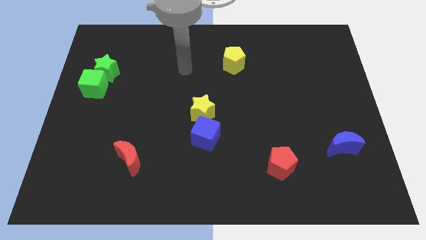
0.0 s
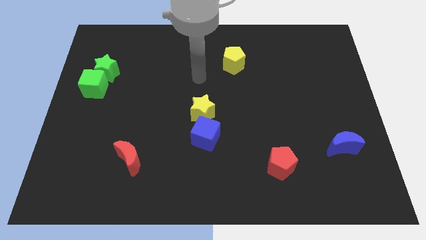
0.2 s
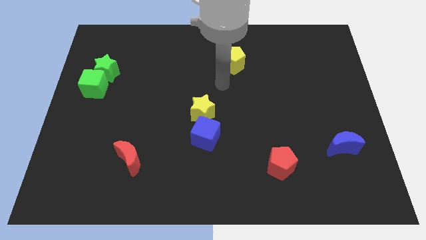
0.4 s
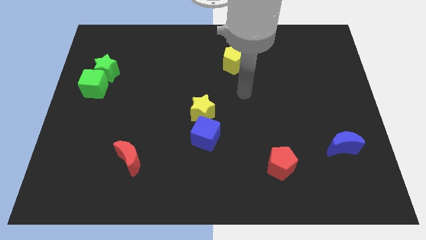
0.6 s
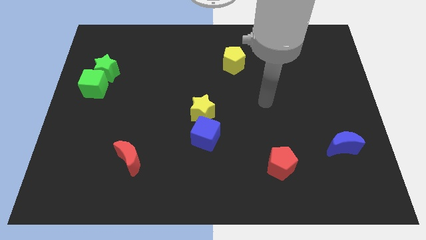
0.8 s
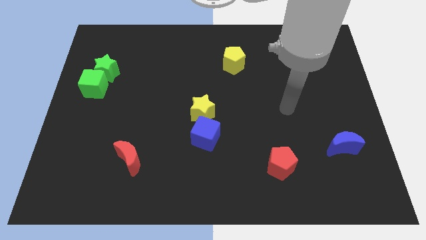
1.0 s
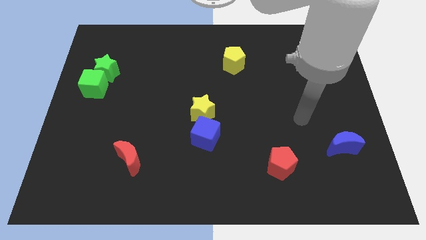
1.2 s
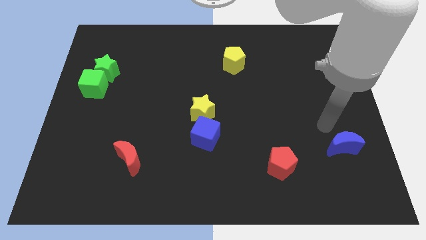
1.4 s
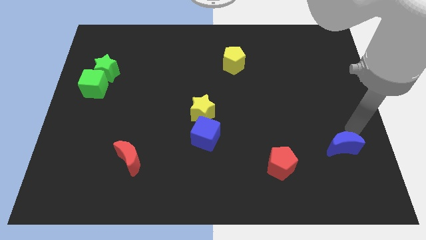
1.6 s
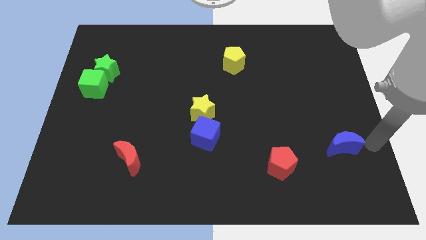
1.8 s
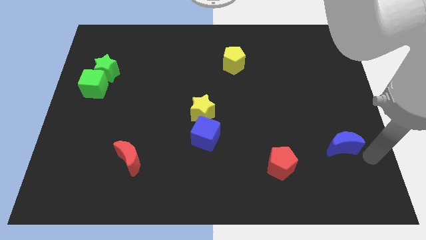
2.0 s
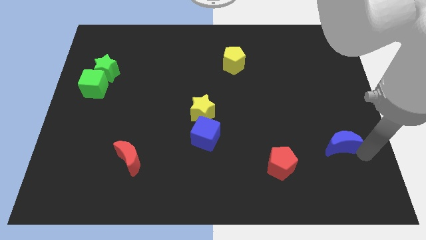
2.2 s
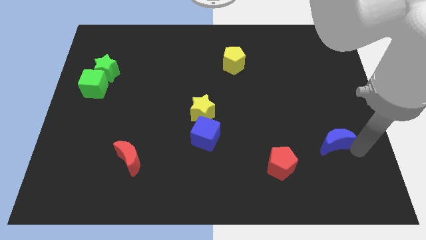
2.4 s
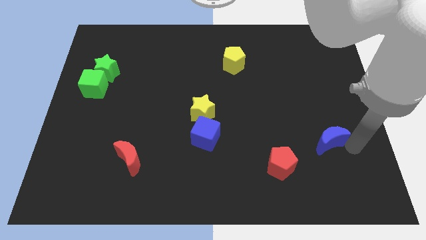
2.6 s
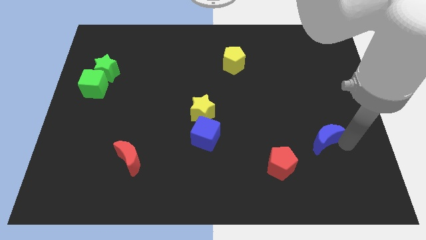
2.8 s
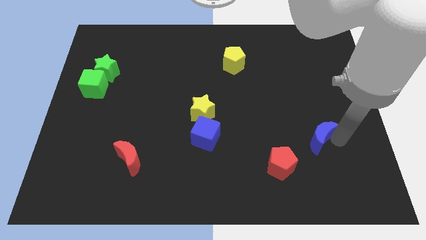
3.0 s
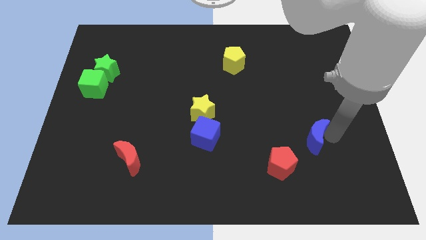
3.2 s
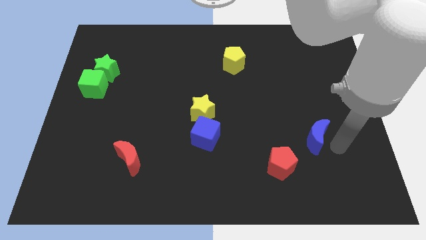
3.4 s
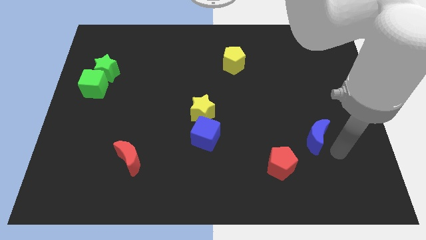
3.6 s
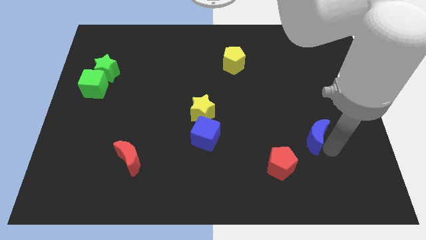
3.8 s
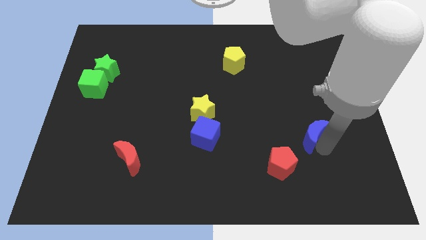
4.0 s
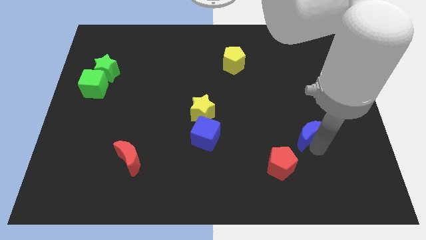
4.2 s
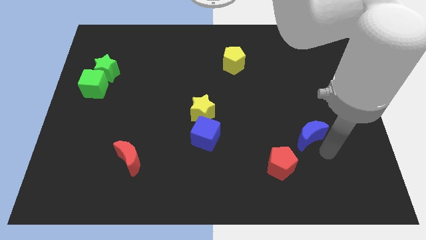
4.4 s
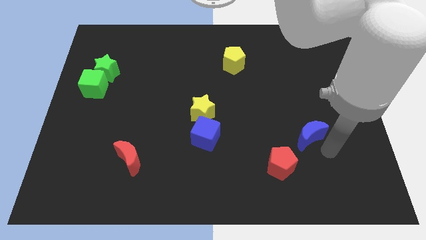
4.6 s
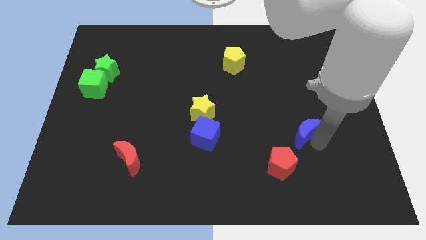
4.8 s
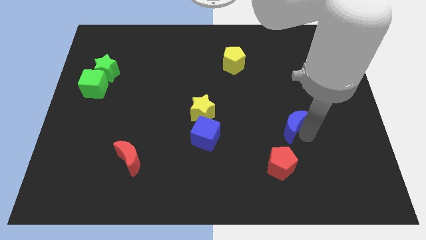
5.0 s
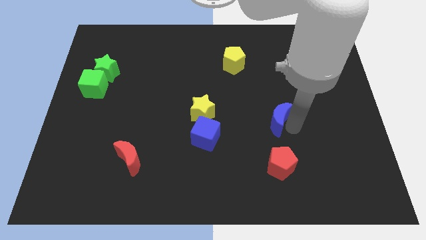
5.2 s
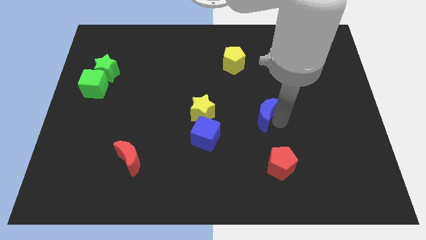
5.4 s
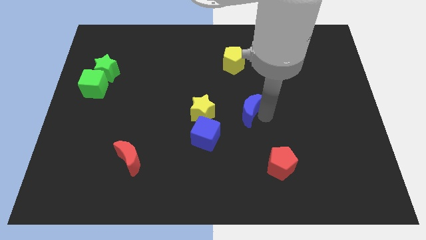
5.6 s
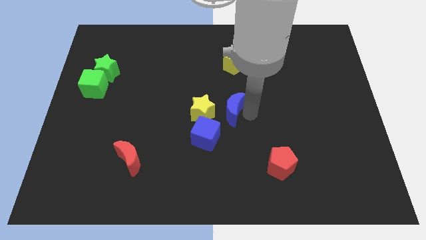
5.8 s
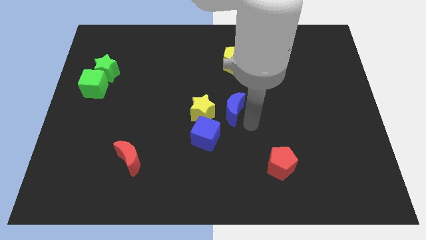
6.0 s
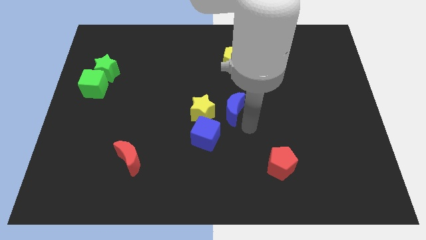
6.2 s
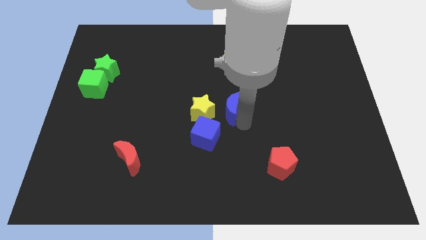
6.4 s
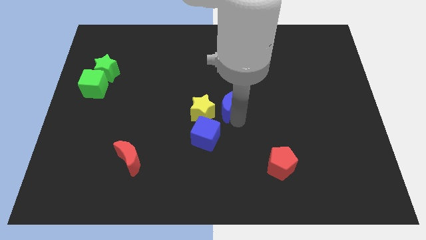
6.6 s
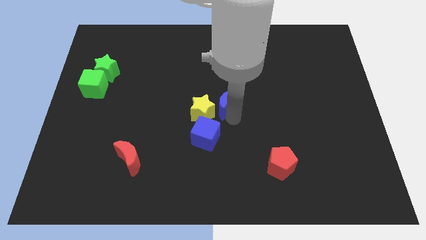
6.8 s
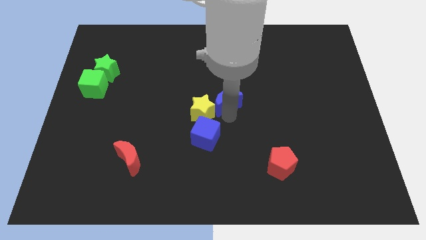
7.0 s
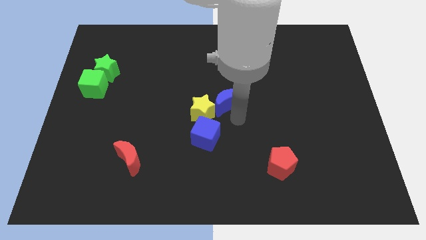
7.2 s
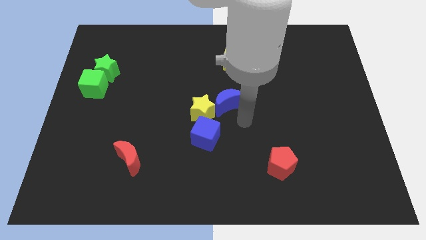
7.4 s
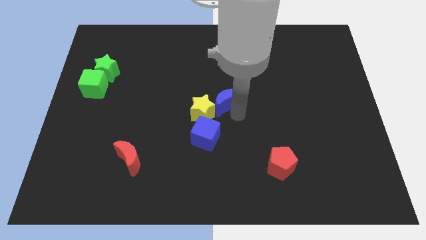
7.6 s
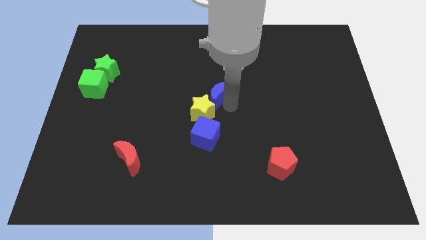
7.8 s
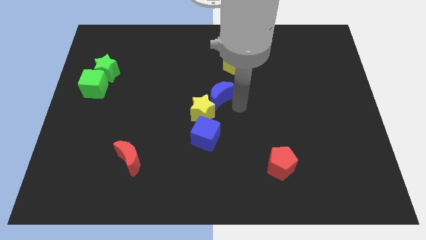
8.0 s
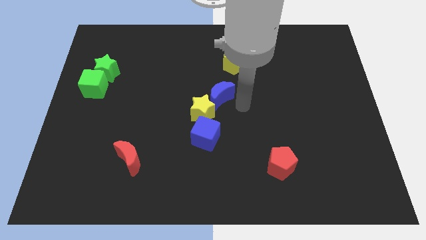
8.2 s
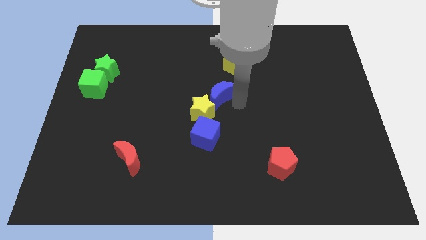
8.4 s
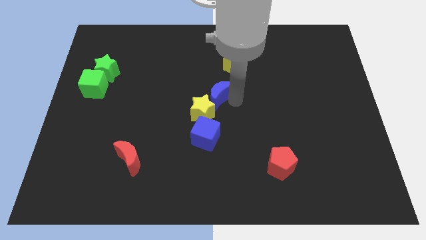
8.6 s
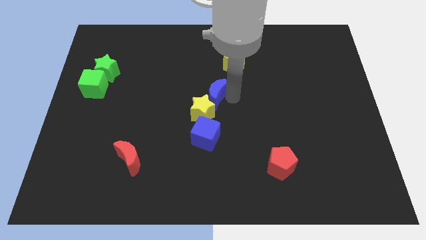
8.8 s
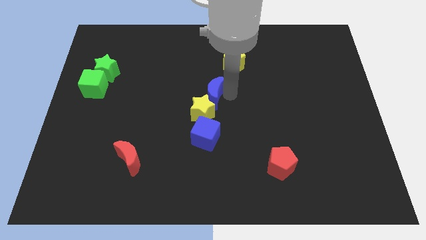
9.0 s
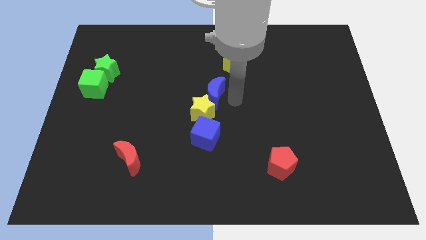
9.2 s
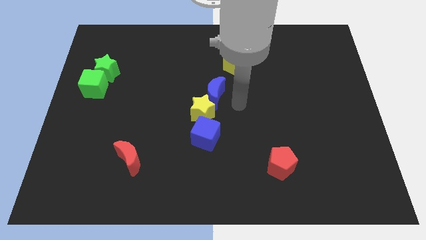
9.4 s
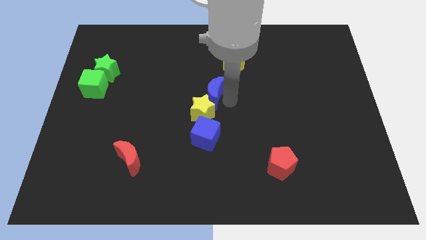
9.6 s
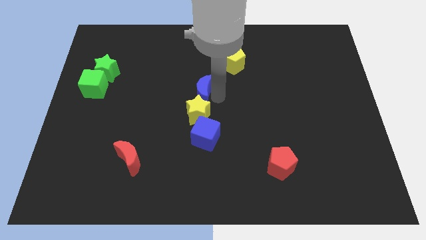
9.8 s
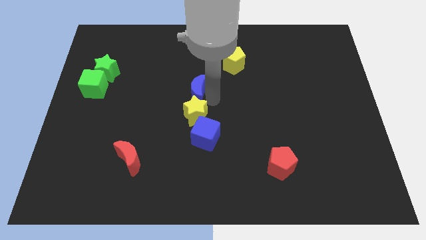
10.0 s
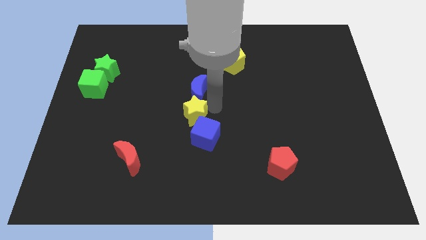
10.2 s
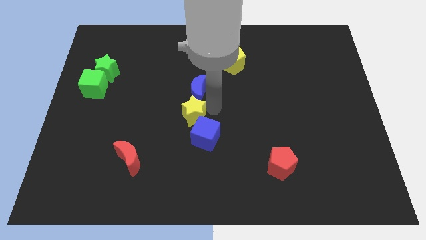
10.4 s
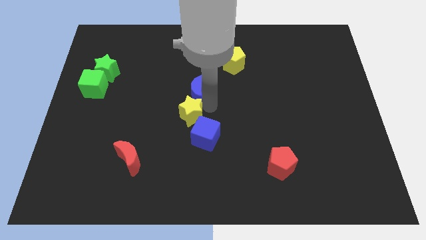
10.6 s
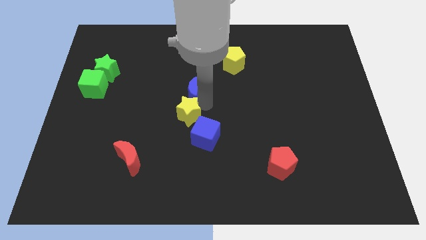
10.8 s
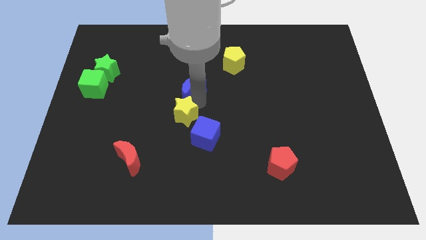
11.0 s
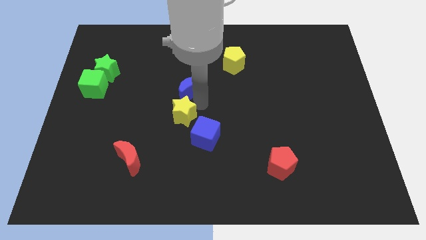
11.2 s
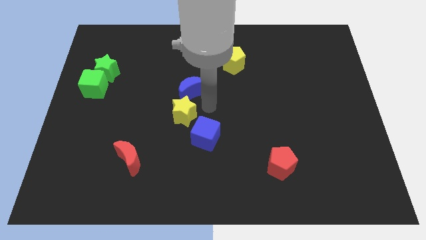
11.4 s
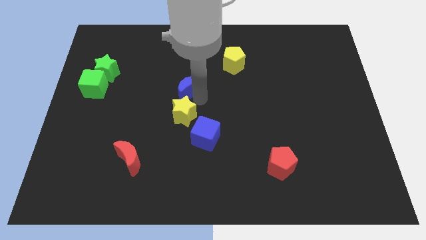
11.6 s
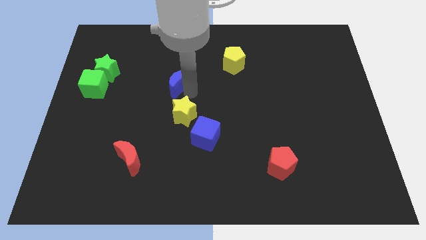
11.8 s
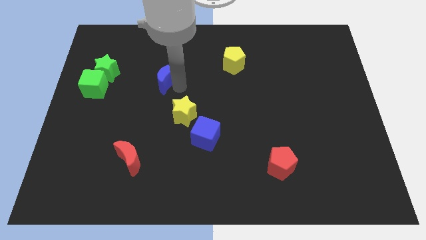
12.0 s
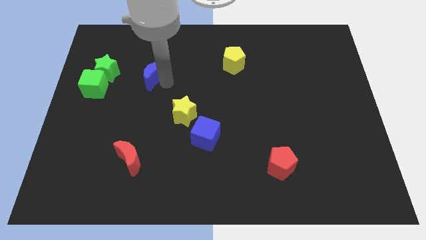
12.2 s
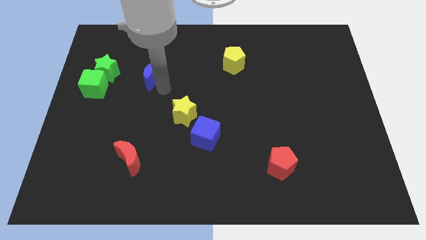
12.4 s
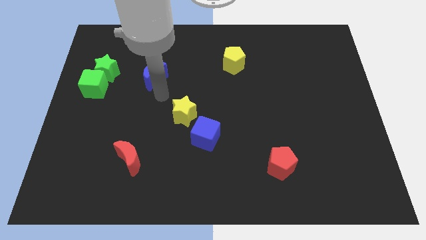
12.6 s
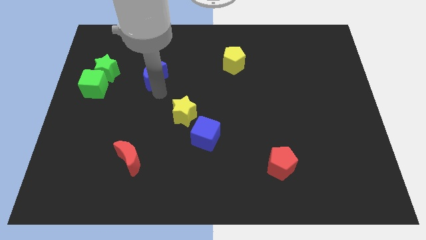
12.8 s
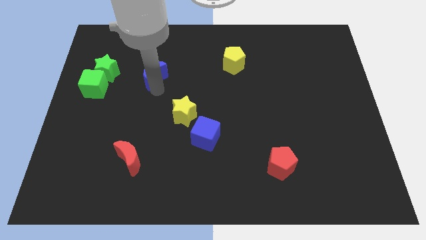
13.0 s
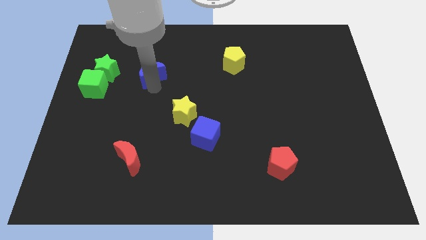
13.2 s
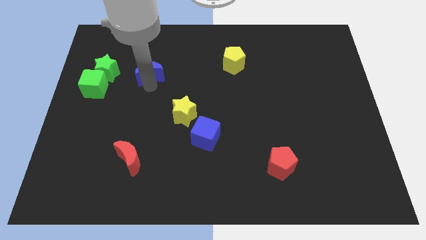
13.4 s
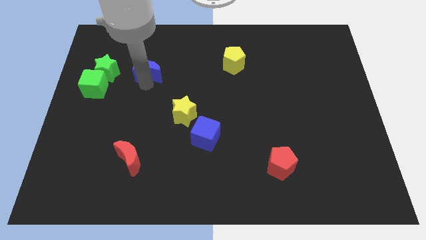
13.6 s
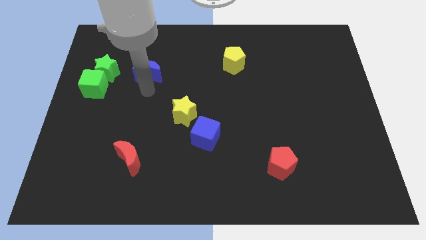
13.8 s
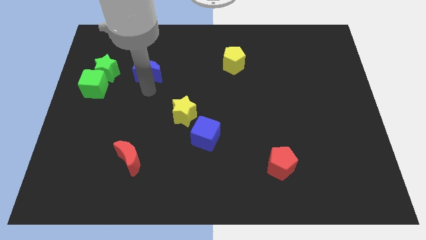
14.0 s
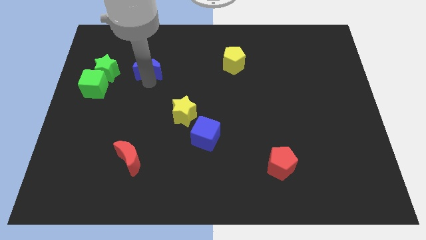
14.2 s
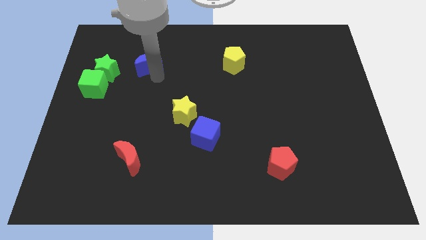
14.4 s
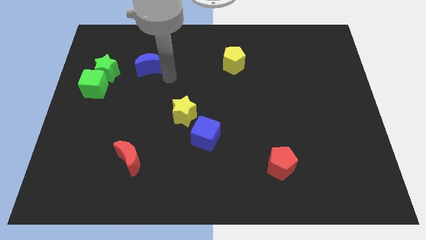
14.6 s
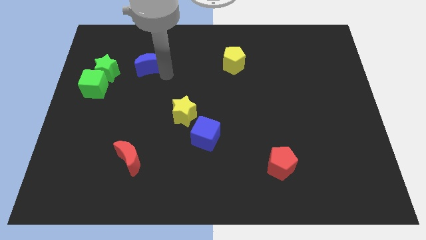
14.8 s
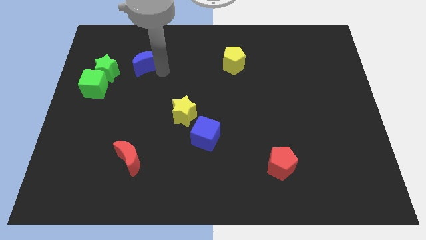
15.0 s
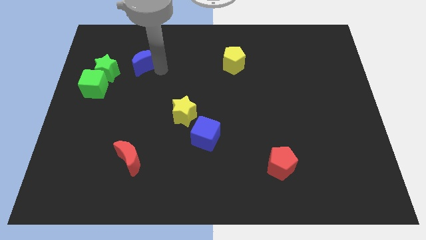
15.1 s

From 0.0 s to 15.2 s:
put the blue moon to the top right of the green star
